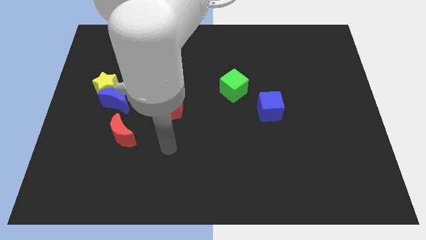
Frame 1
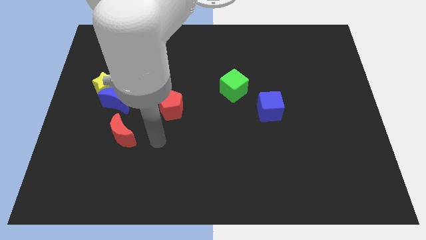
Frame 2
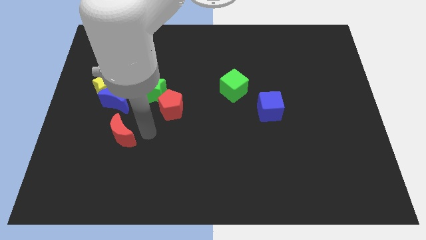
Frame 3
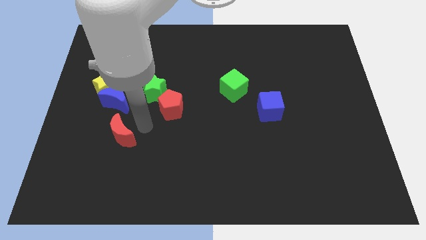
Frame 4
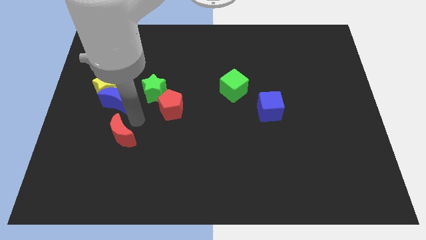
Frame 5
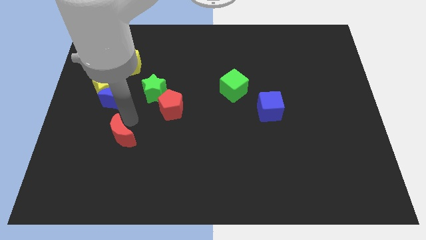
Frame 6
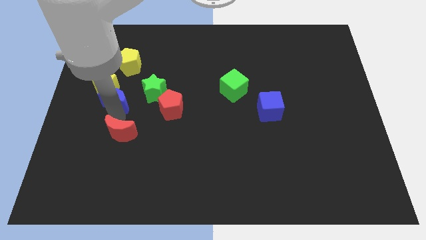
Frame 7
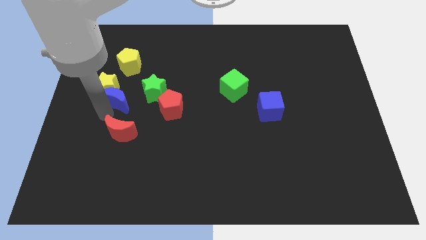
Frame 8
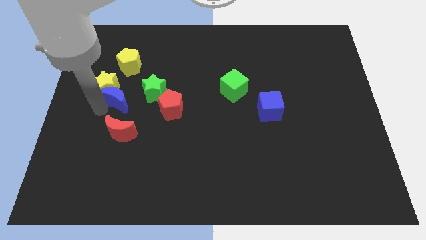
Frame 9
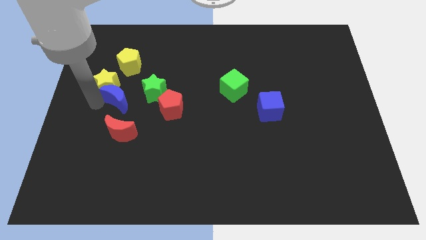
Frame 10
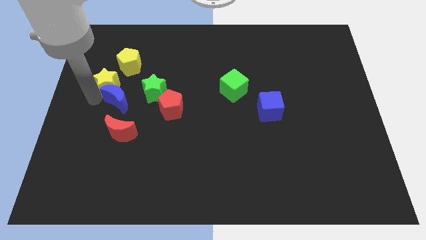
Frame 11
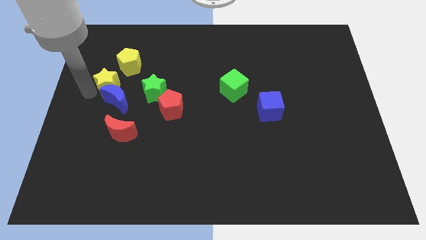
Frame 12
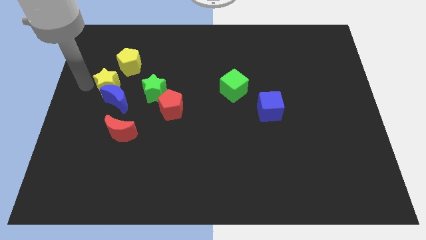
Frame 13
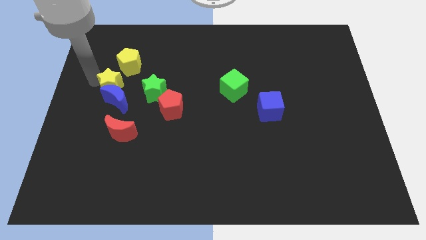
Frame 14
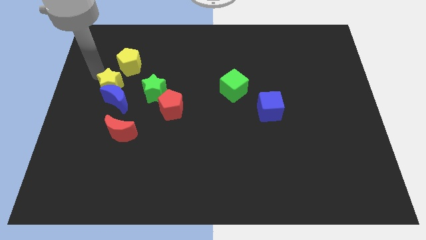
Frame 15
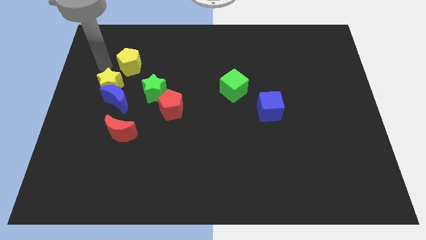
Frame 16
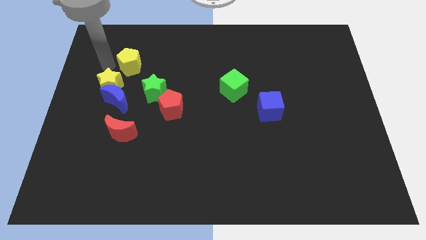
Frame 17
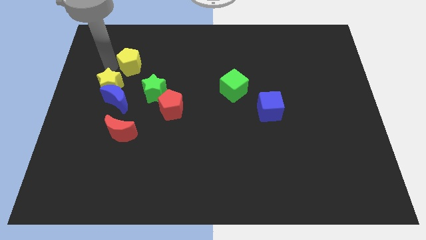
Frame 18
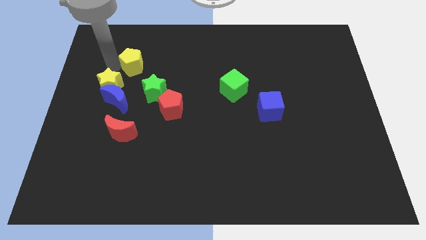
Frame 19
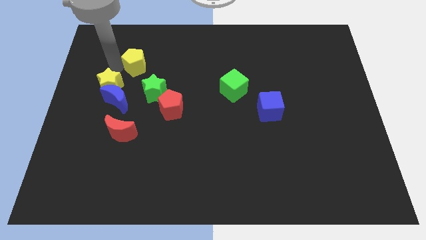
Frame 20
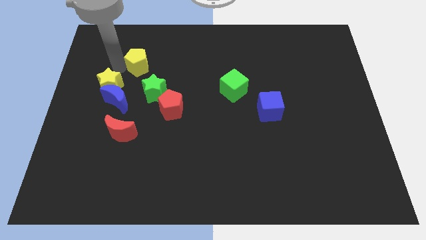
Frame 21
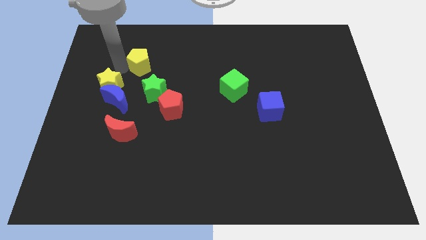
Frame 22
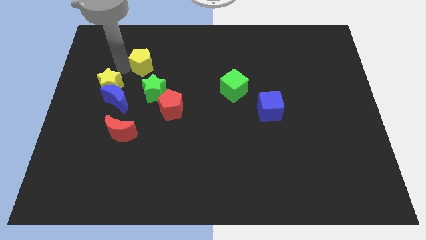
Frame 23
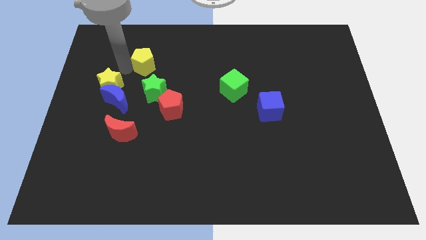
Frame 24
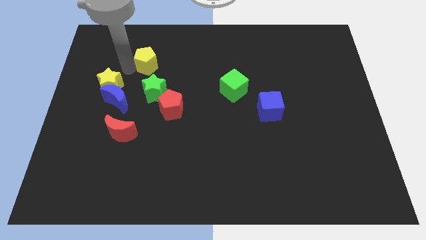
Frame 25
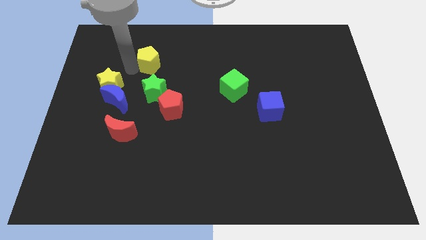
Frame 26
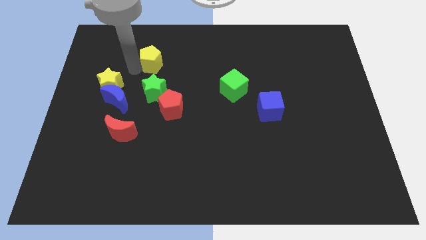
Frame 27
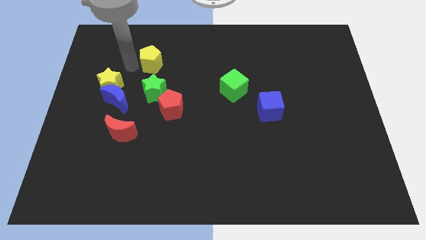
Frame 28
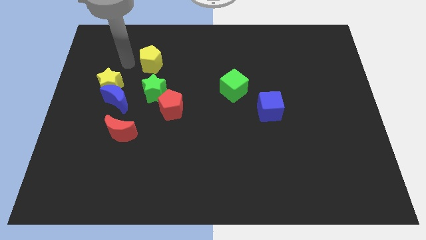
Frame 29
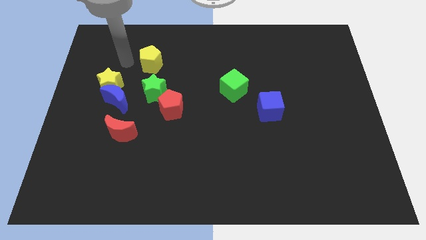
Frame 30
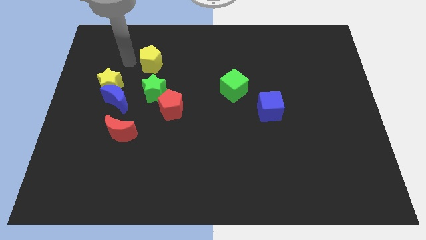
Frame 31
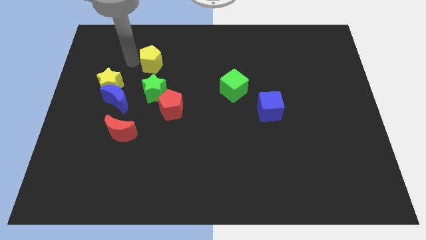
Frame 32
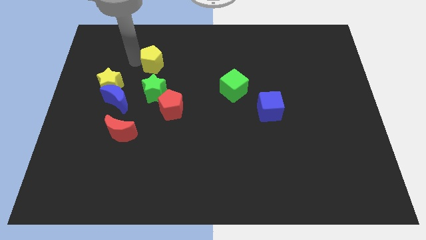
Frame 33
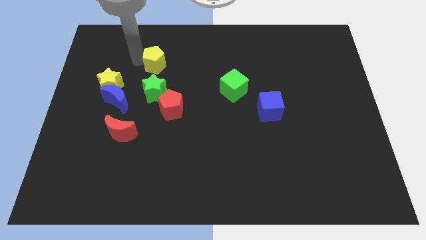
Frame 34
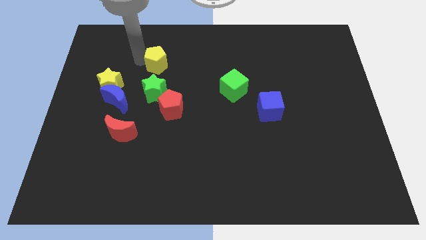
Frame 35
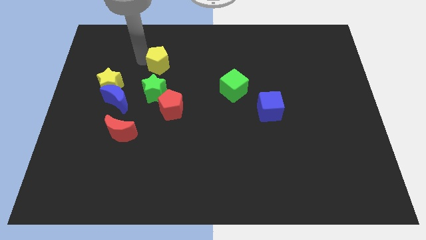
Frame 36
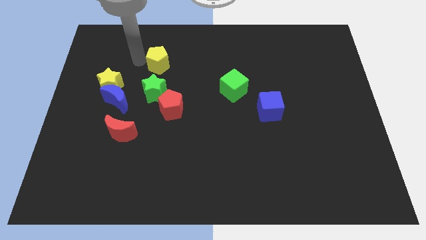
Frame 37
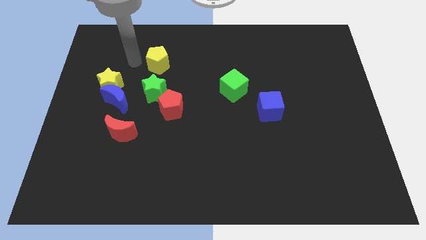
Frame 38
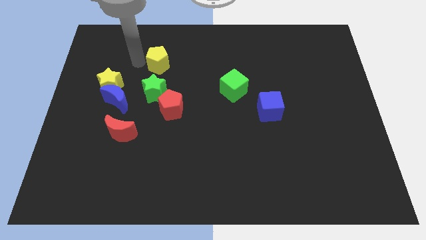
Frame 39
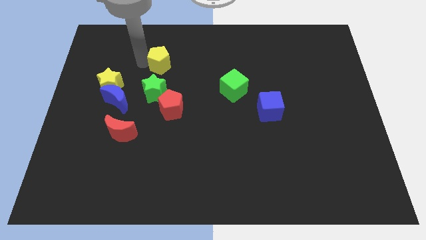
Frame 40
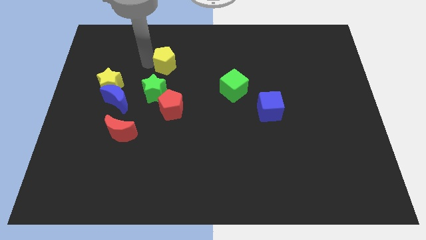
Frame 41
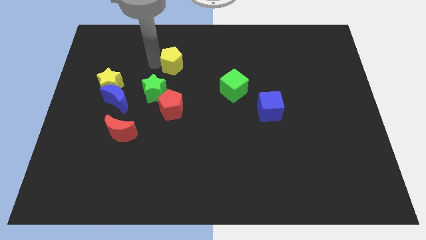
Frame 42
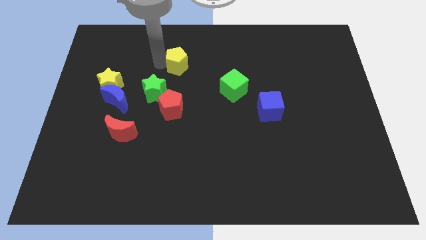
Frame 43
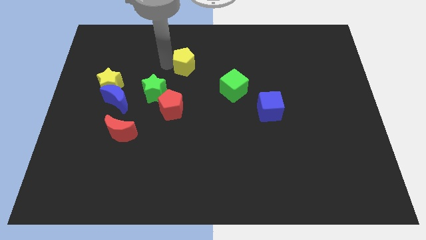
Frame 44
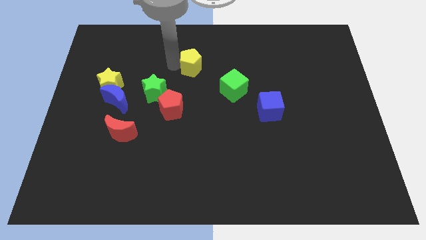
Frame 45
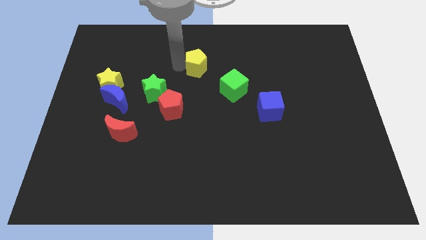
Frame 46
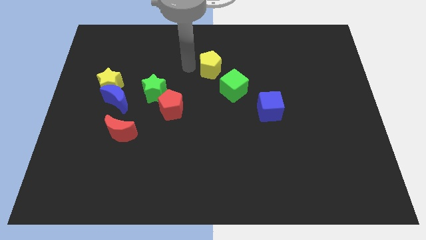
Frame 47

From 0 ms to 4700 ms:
slide the yellow pentagon right

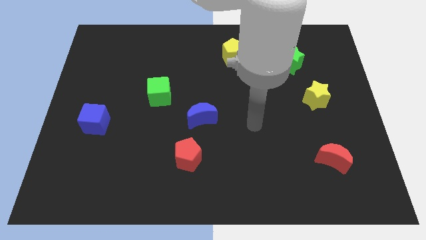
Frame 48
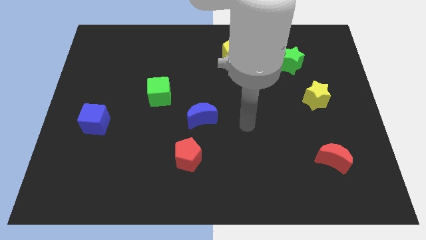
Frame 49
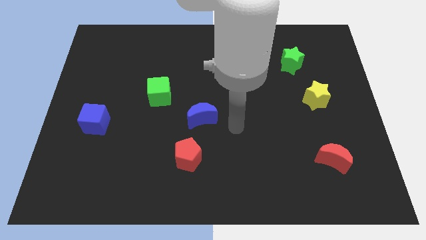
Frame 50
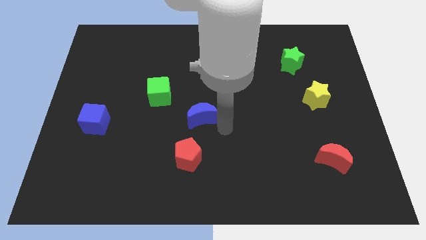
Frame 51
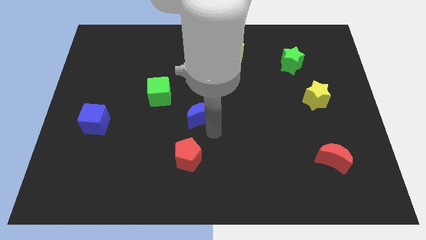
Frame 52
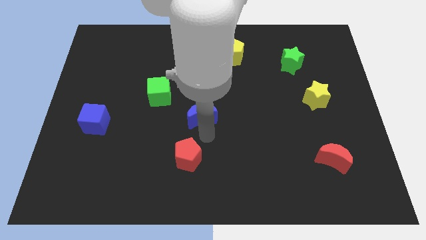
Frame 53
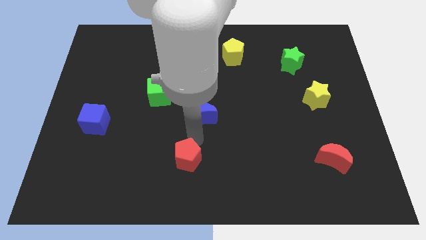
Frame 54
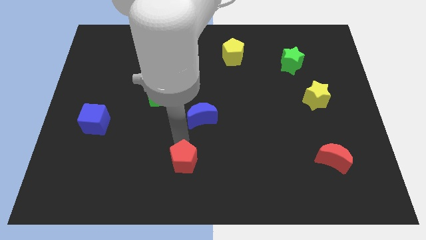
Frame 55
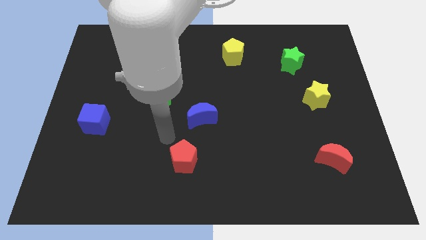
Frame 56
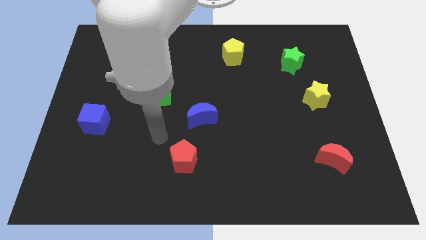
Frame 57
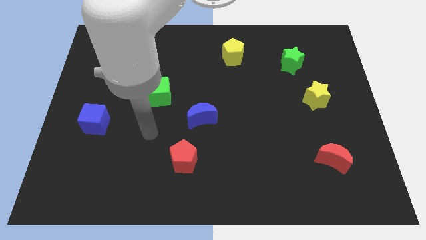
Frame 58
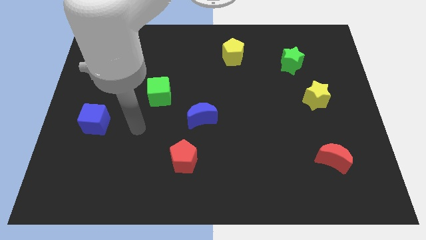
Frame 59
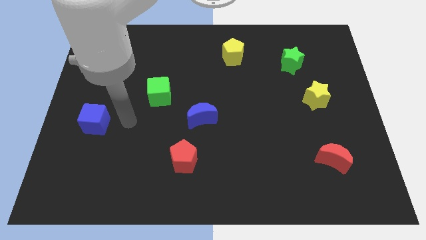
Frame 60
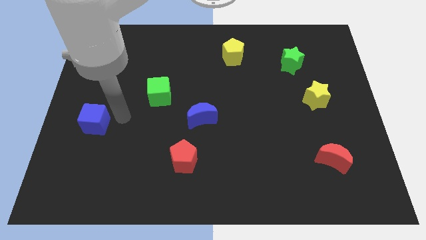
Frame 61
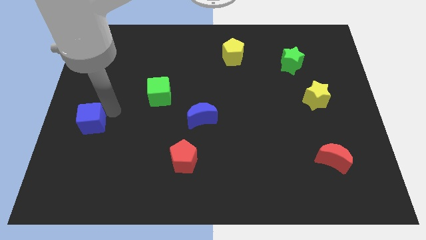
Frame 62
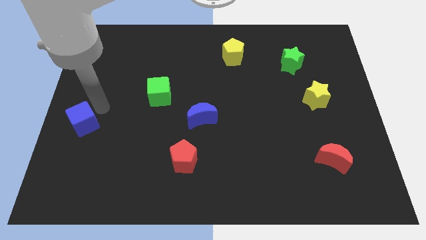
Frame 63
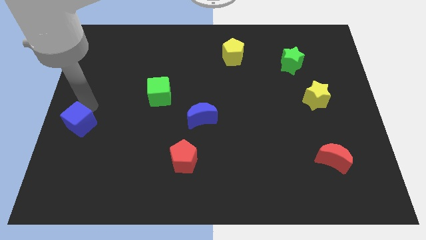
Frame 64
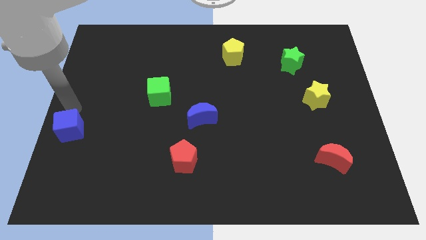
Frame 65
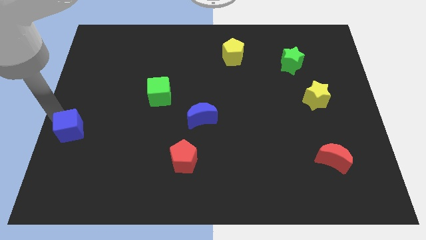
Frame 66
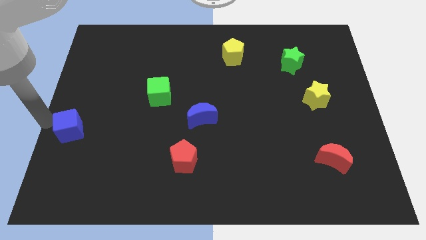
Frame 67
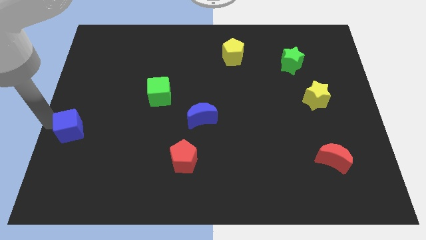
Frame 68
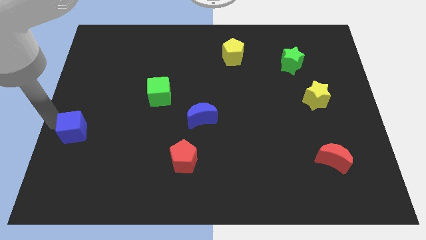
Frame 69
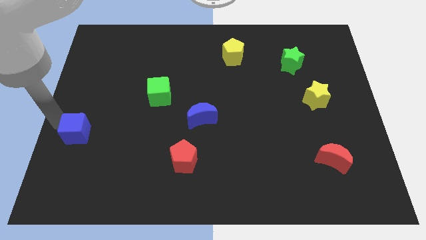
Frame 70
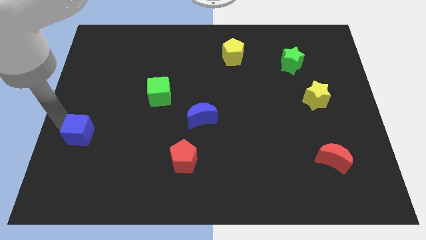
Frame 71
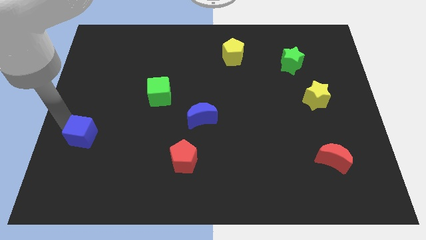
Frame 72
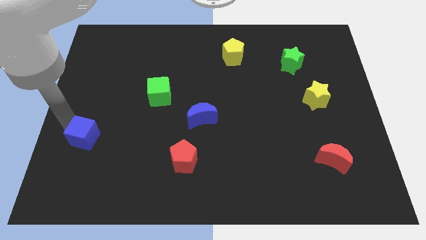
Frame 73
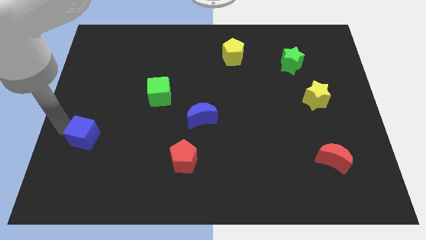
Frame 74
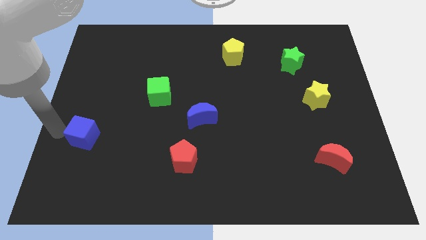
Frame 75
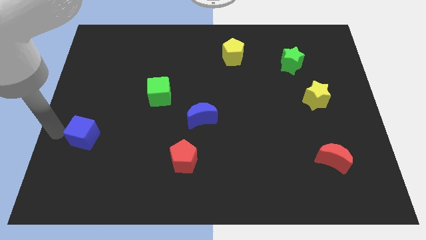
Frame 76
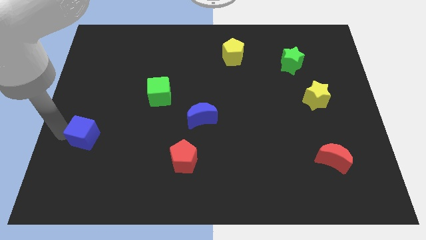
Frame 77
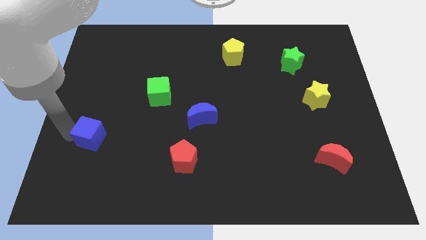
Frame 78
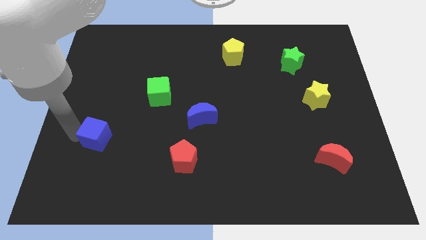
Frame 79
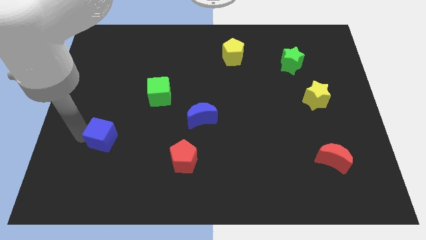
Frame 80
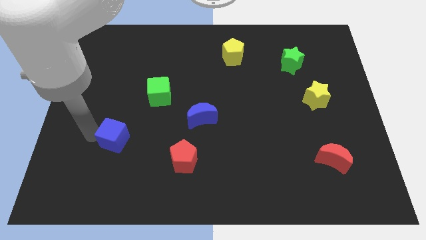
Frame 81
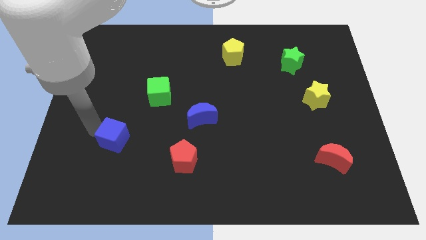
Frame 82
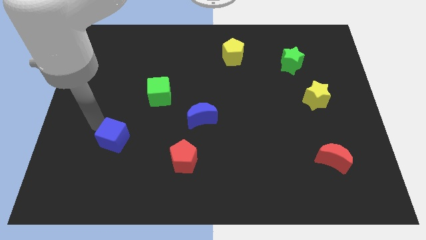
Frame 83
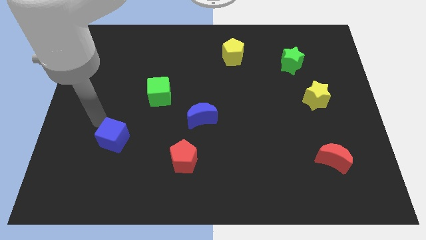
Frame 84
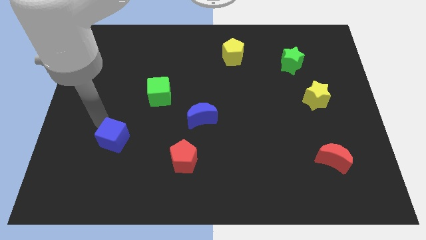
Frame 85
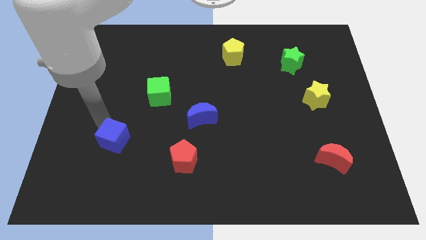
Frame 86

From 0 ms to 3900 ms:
move the blue cube down and right diagonally a bit
